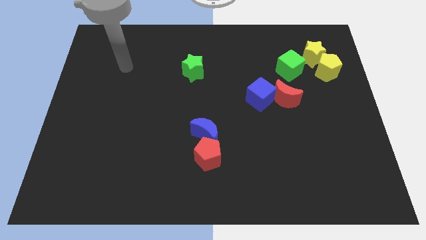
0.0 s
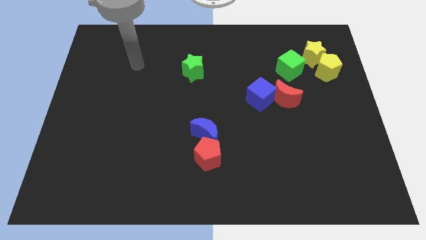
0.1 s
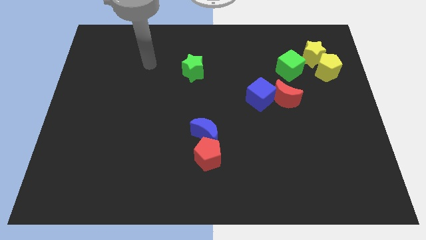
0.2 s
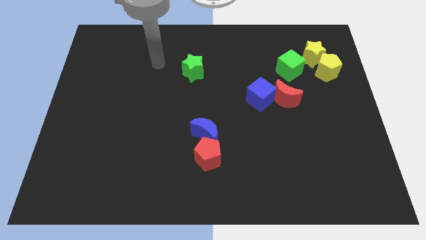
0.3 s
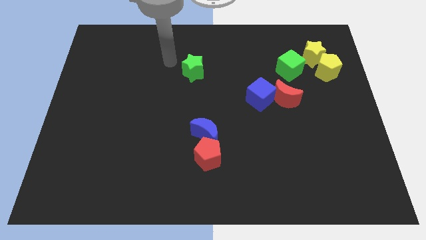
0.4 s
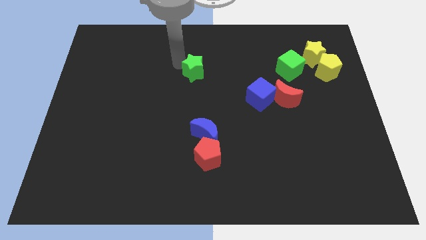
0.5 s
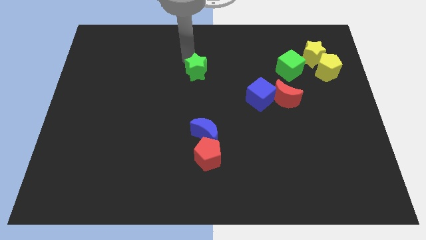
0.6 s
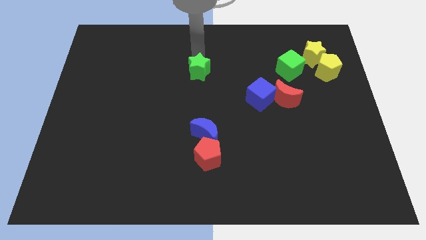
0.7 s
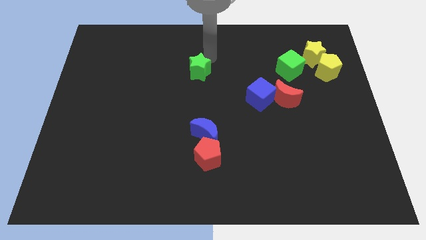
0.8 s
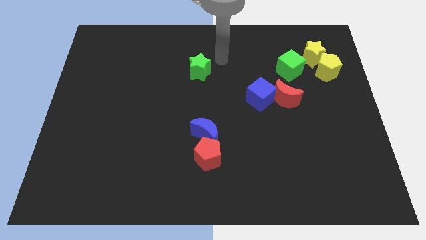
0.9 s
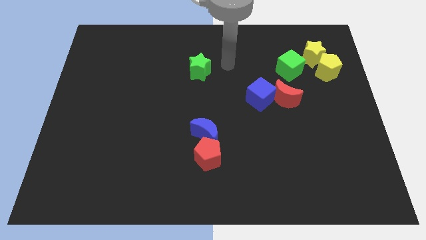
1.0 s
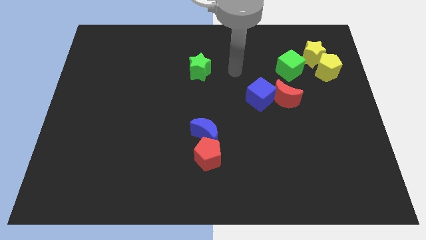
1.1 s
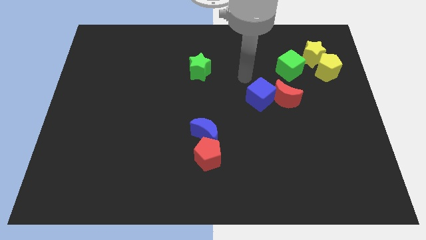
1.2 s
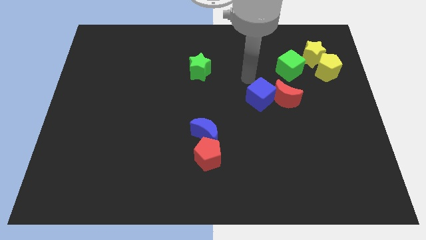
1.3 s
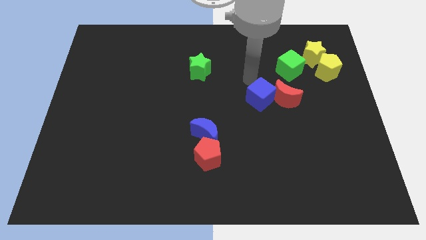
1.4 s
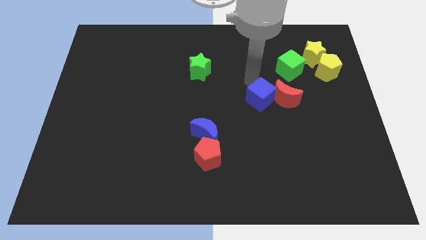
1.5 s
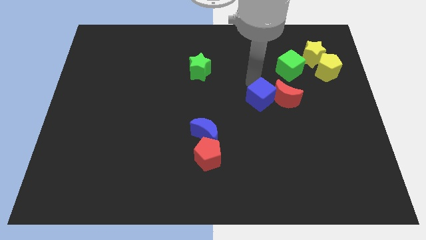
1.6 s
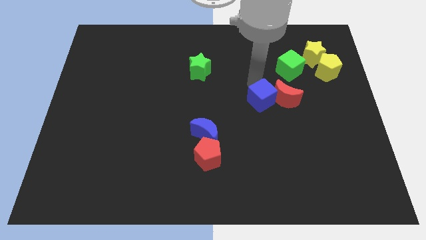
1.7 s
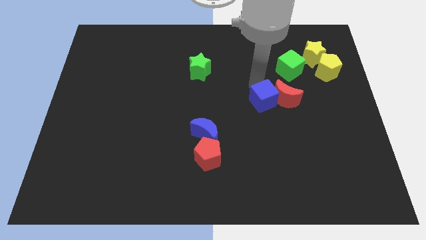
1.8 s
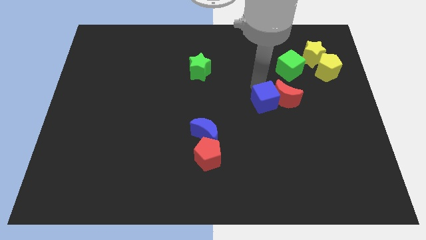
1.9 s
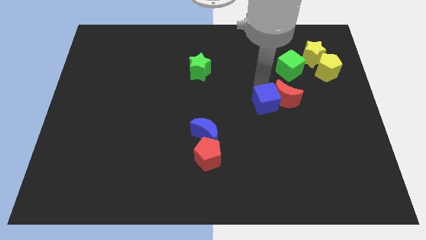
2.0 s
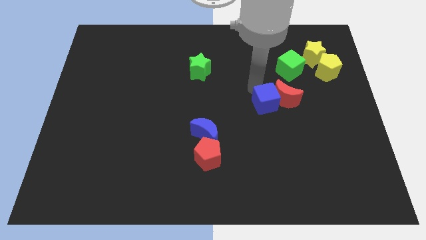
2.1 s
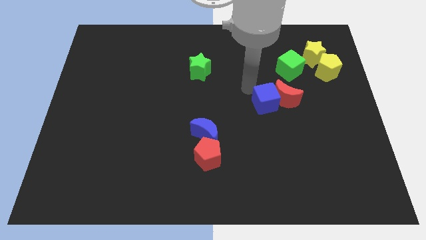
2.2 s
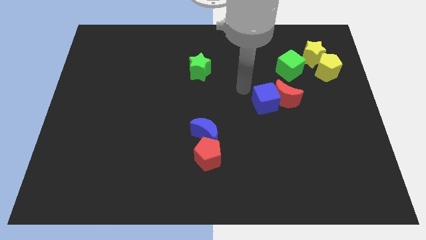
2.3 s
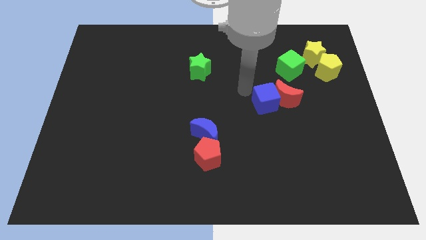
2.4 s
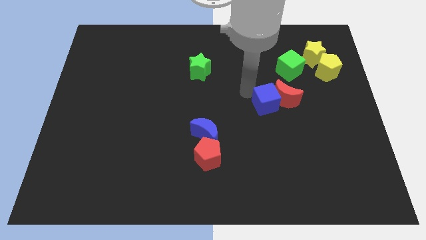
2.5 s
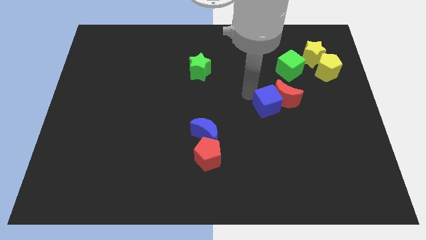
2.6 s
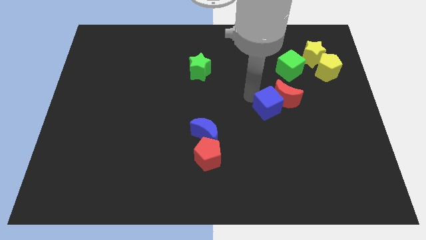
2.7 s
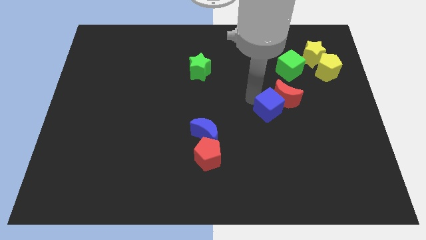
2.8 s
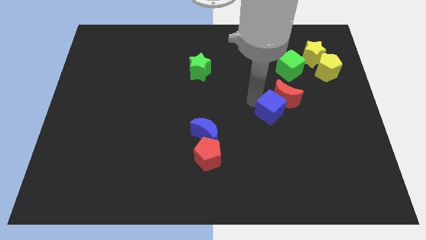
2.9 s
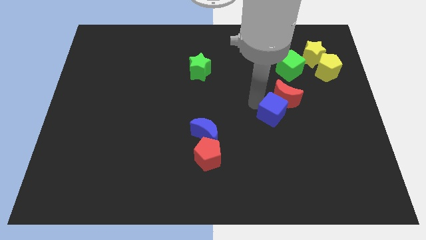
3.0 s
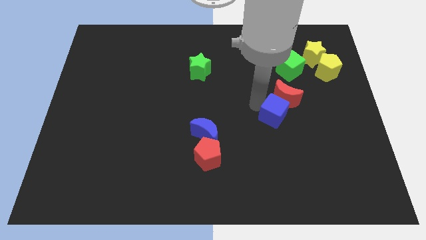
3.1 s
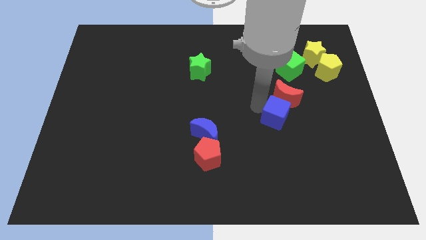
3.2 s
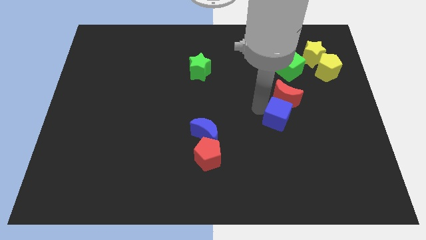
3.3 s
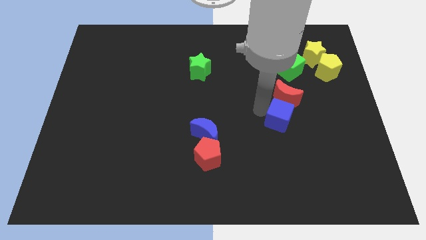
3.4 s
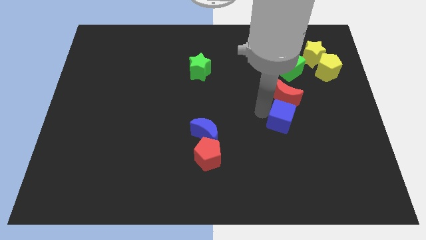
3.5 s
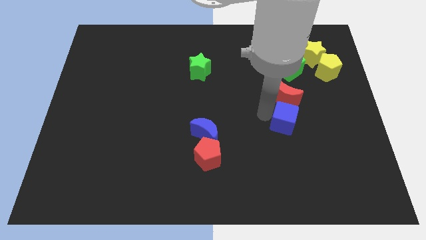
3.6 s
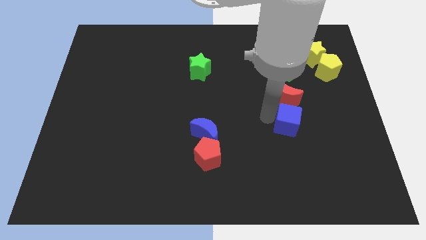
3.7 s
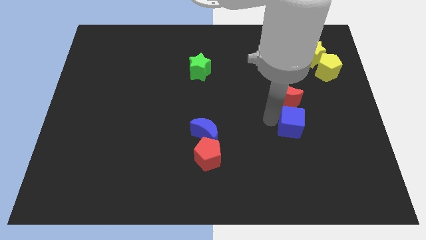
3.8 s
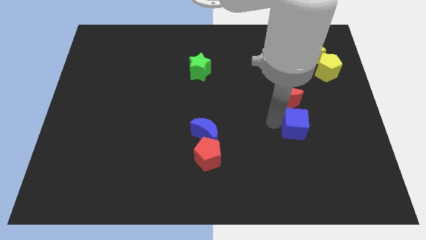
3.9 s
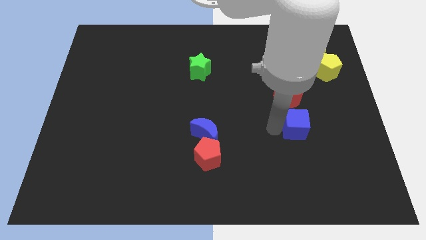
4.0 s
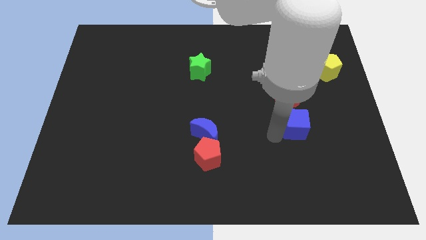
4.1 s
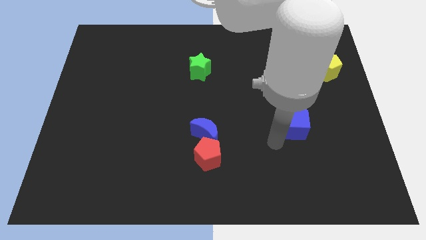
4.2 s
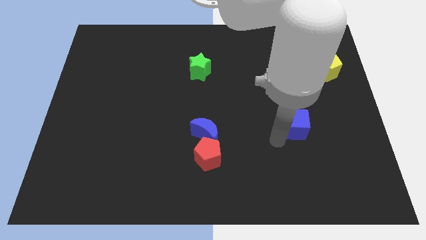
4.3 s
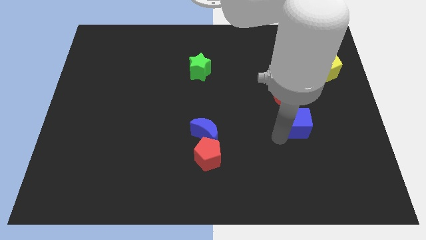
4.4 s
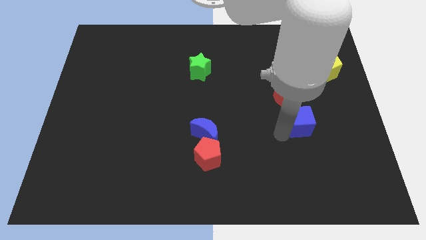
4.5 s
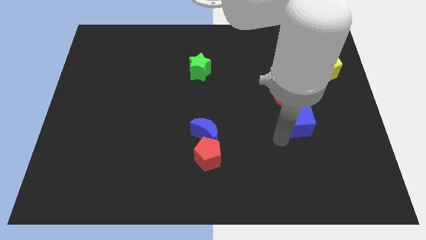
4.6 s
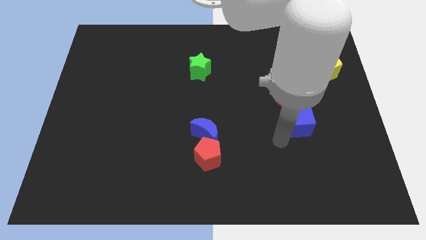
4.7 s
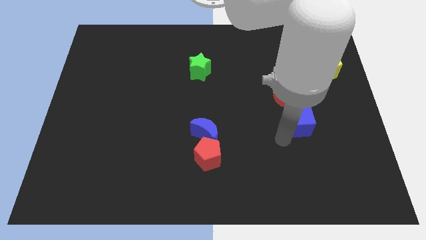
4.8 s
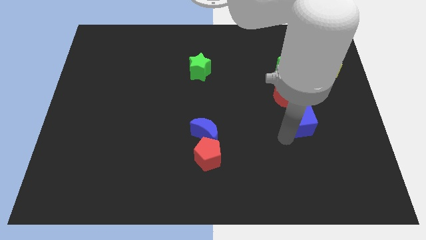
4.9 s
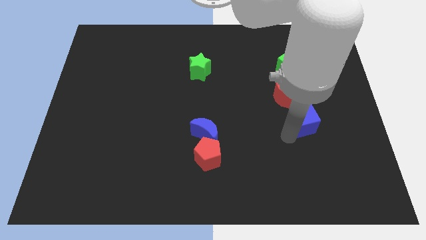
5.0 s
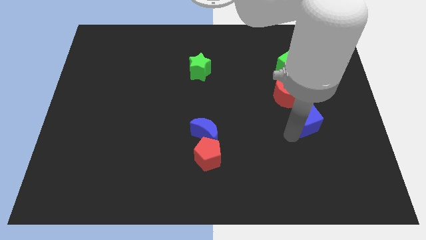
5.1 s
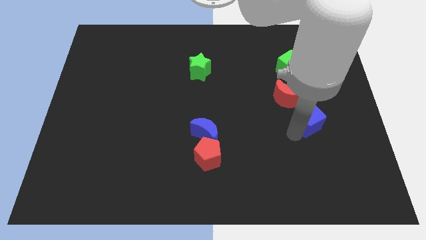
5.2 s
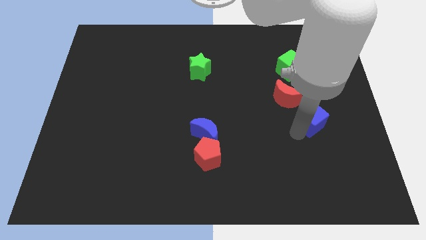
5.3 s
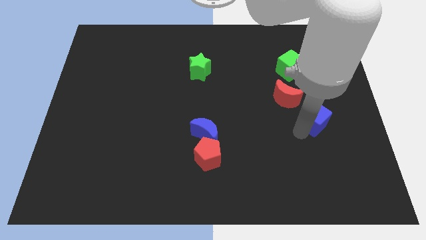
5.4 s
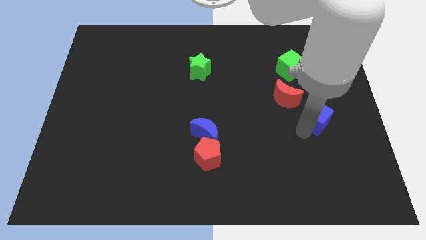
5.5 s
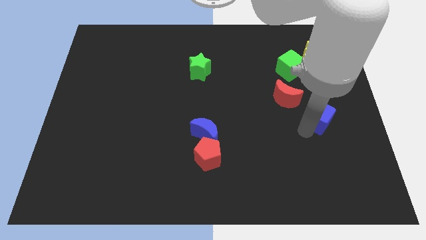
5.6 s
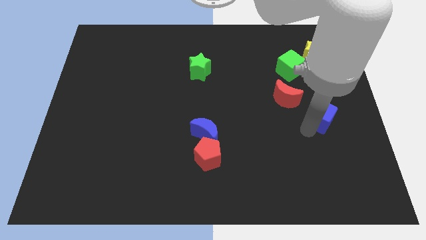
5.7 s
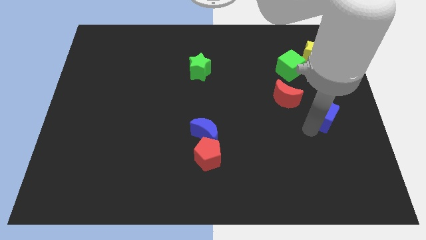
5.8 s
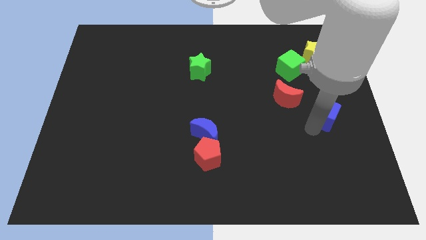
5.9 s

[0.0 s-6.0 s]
move the blue cube to the bottom side of the yellow pentagon

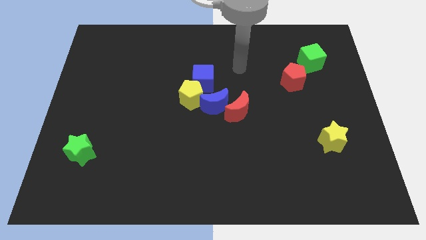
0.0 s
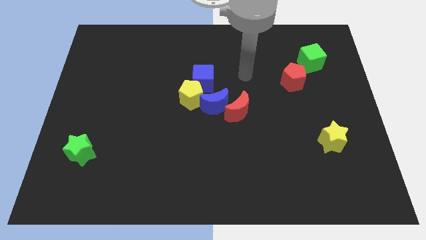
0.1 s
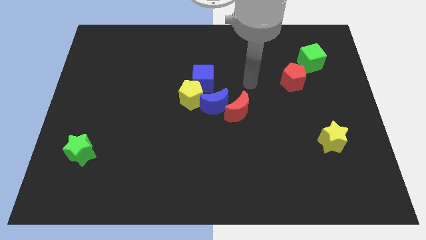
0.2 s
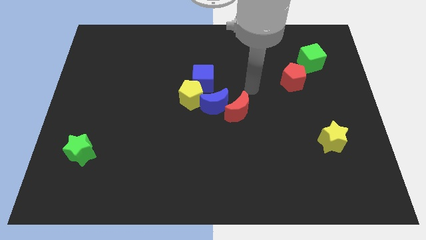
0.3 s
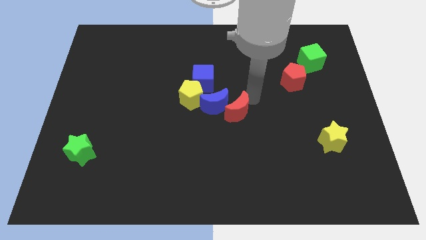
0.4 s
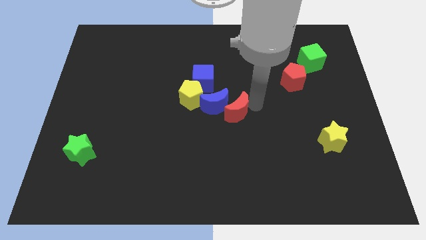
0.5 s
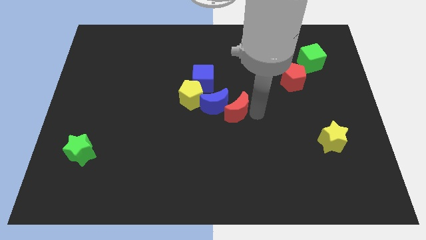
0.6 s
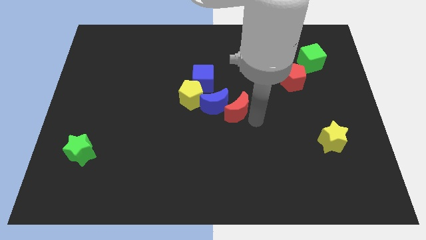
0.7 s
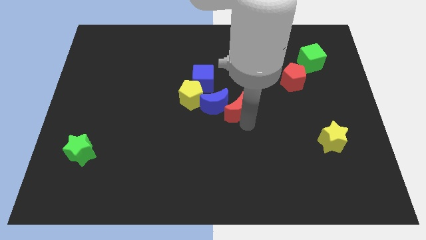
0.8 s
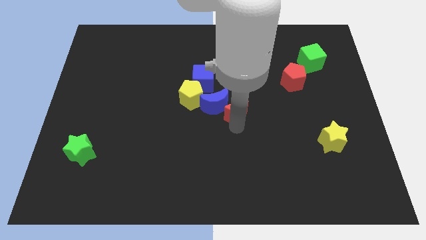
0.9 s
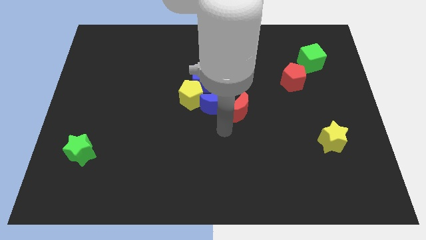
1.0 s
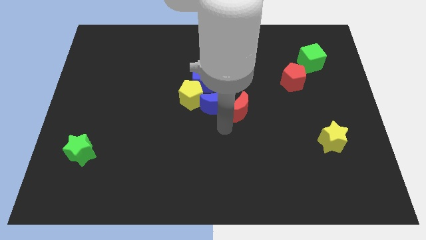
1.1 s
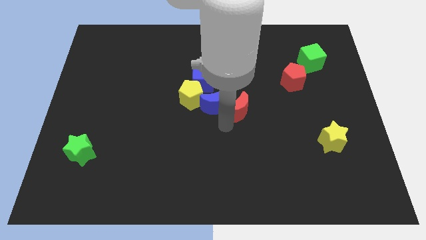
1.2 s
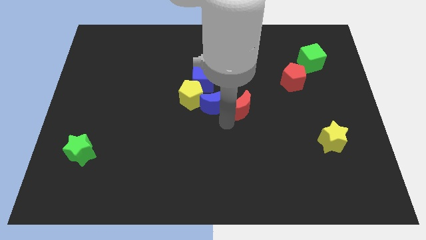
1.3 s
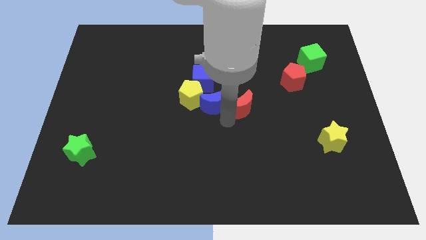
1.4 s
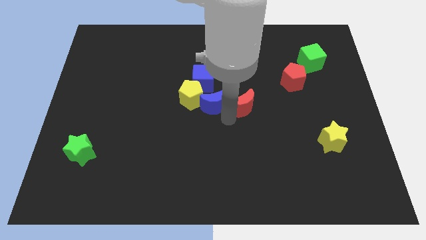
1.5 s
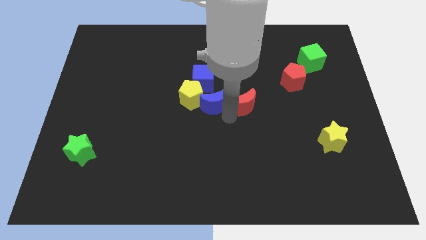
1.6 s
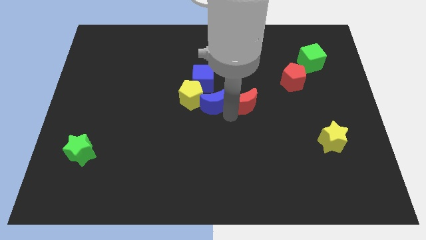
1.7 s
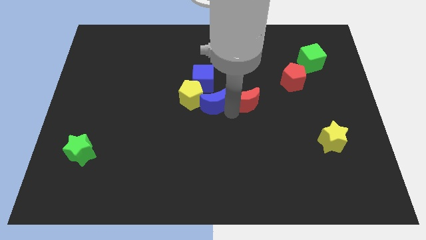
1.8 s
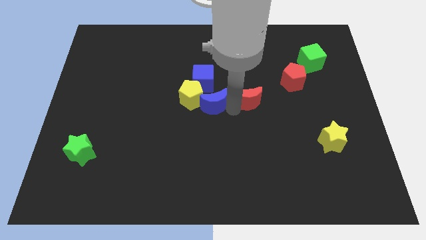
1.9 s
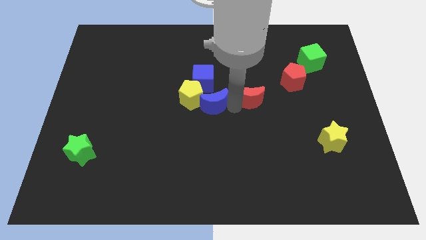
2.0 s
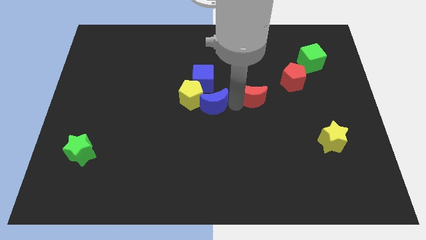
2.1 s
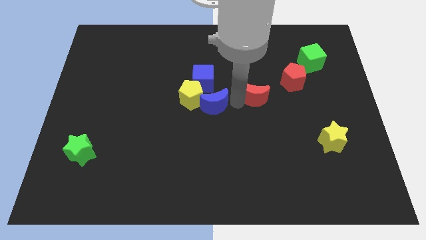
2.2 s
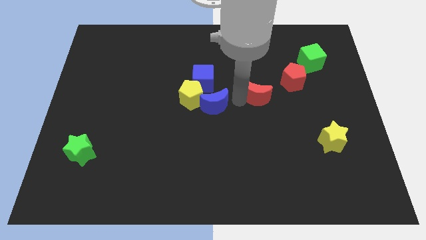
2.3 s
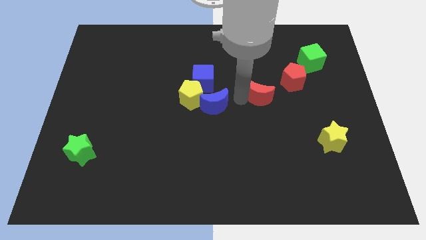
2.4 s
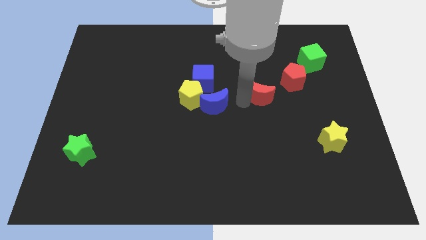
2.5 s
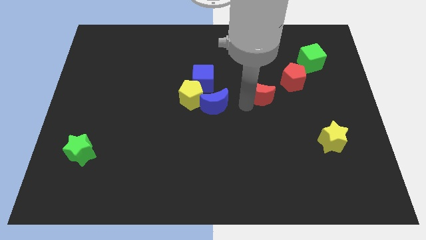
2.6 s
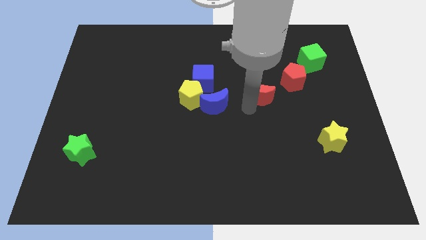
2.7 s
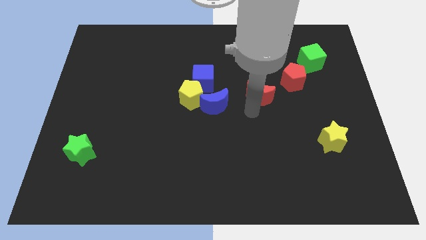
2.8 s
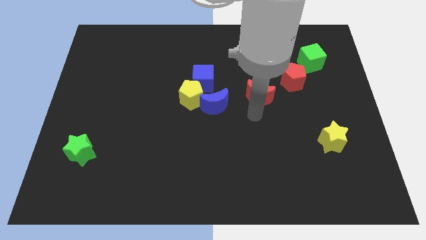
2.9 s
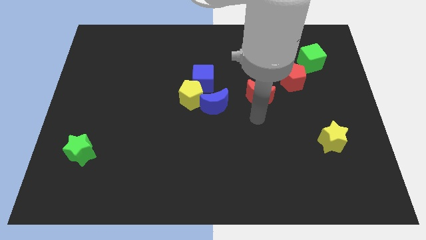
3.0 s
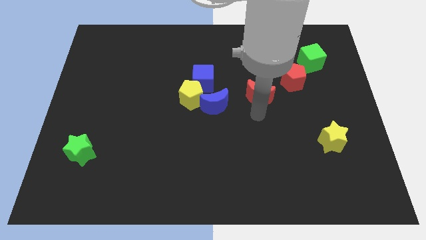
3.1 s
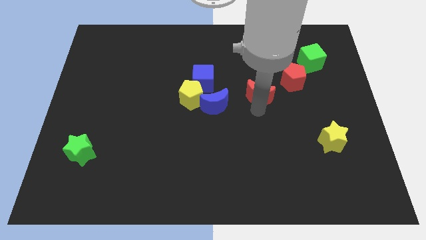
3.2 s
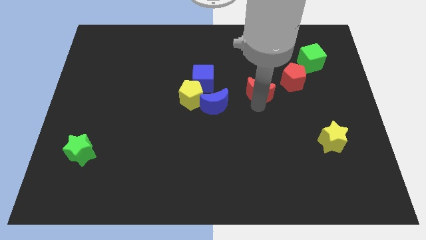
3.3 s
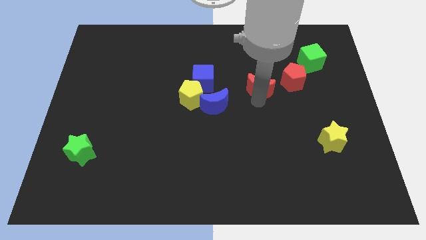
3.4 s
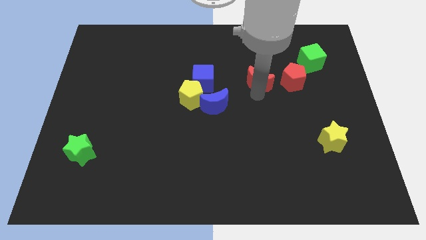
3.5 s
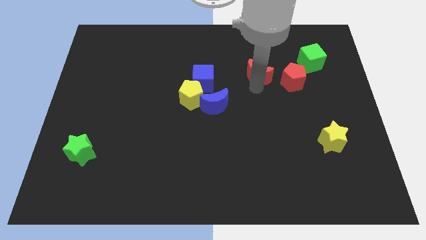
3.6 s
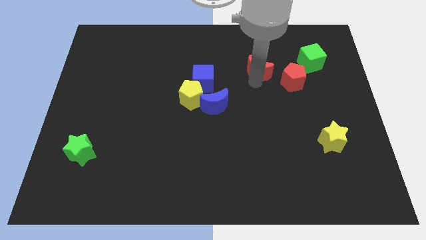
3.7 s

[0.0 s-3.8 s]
slide the red moon just left of the green cube
